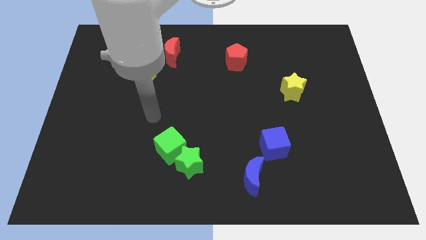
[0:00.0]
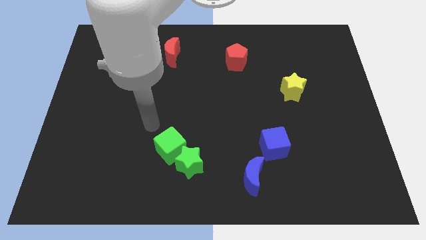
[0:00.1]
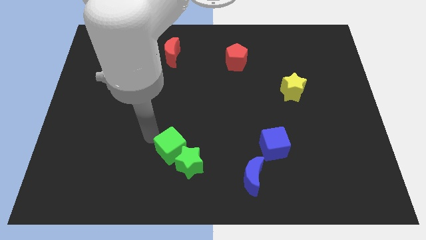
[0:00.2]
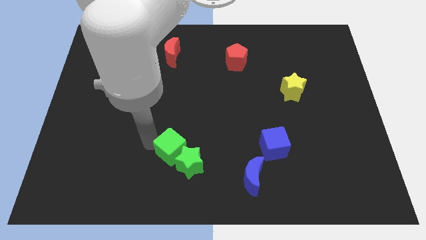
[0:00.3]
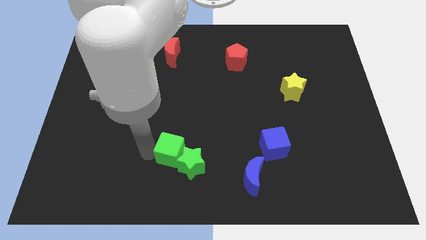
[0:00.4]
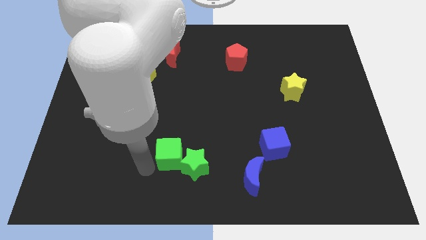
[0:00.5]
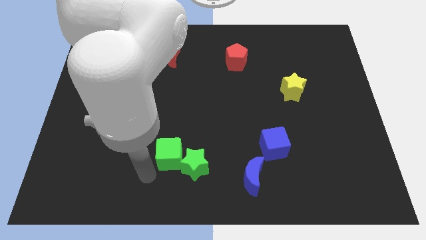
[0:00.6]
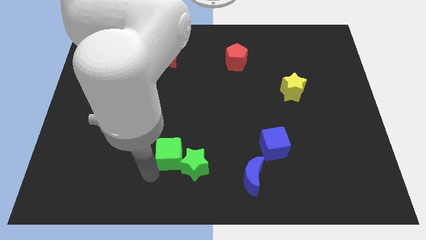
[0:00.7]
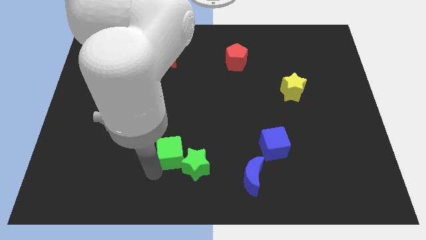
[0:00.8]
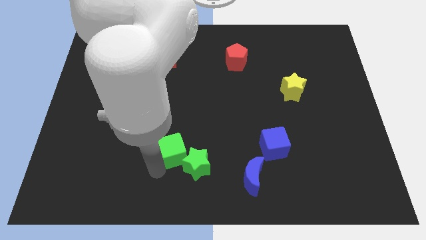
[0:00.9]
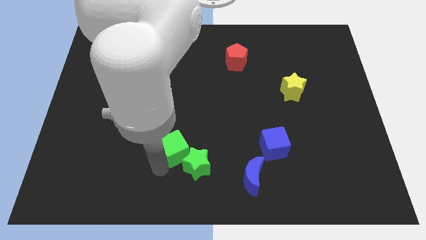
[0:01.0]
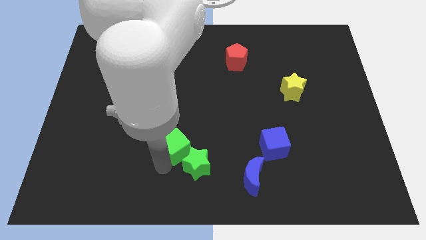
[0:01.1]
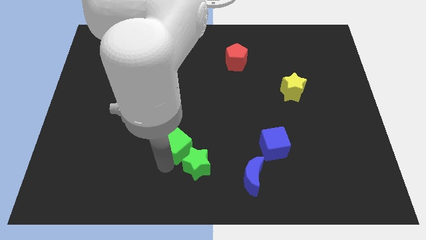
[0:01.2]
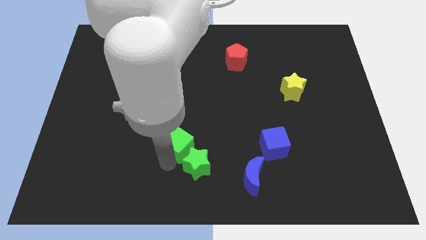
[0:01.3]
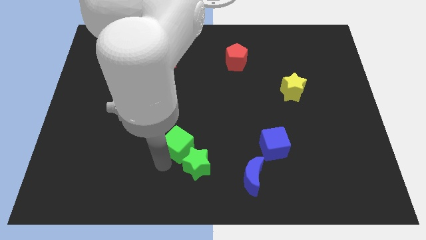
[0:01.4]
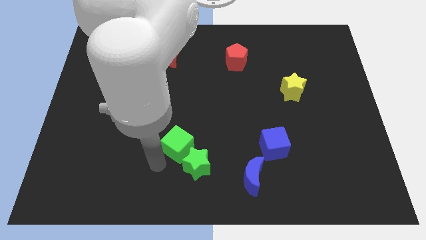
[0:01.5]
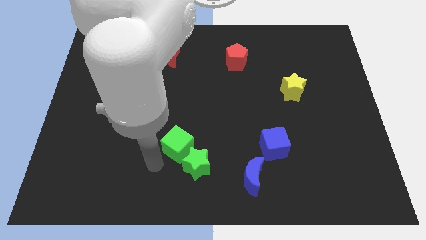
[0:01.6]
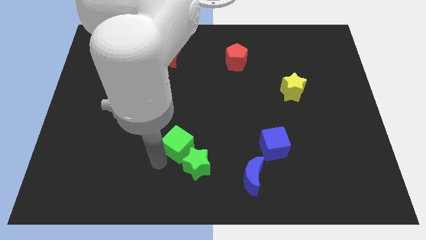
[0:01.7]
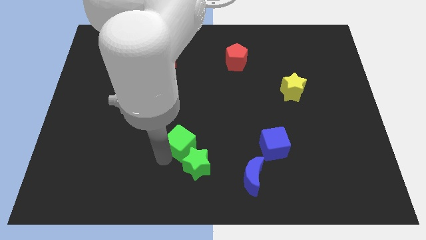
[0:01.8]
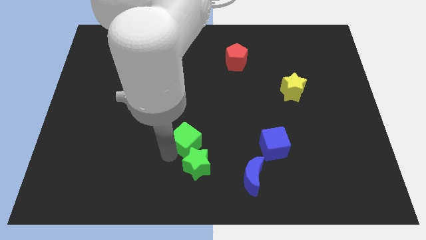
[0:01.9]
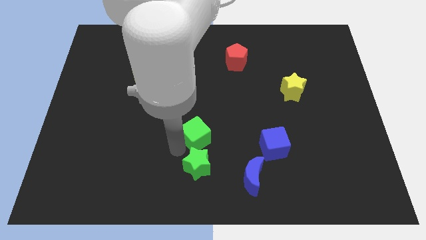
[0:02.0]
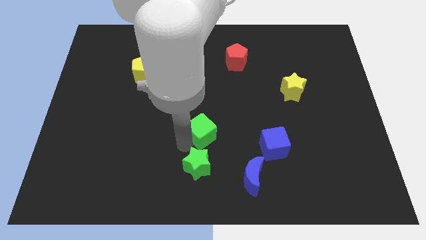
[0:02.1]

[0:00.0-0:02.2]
move the green cube somewhat up and right

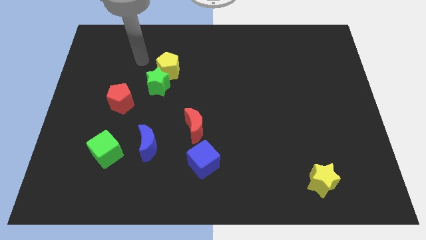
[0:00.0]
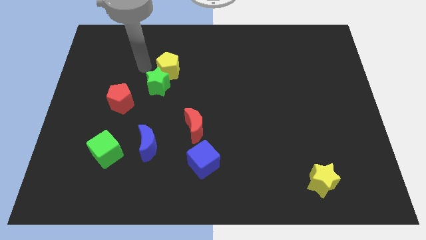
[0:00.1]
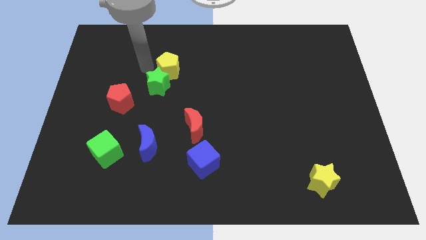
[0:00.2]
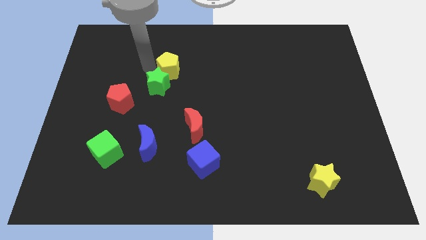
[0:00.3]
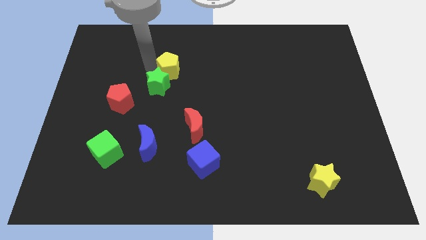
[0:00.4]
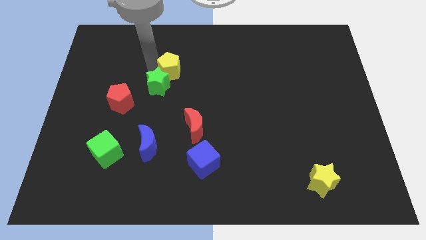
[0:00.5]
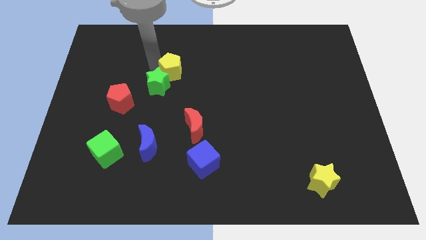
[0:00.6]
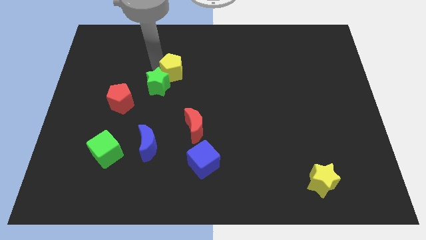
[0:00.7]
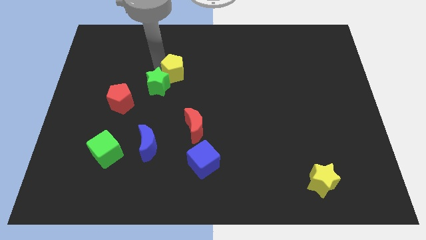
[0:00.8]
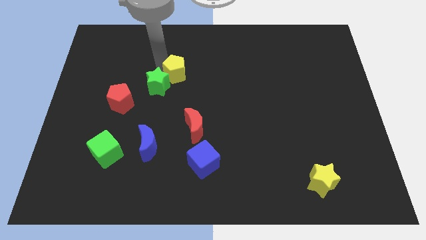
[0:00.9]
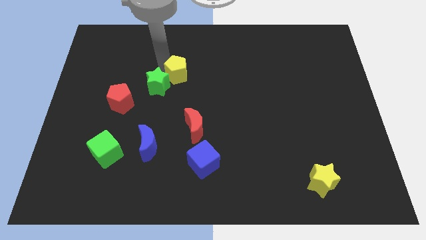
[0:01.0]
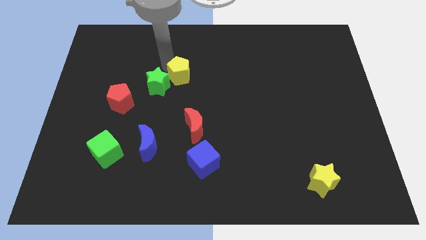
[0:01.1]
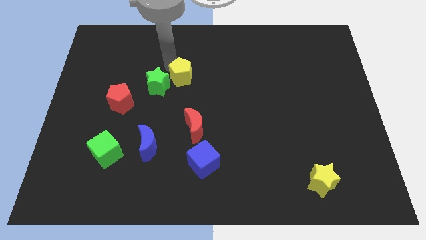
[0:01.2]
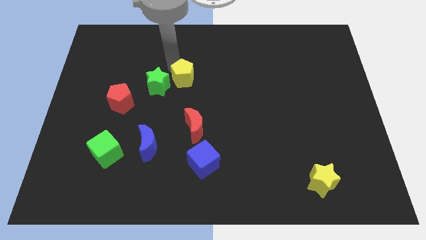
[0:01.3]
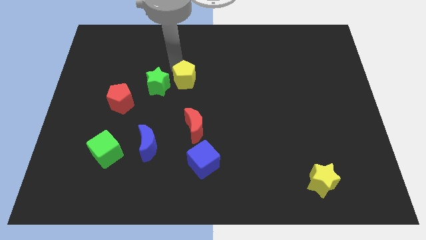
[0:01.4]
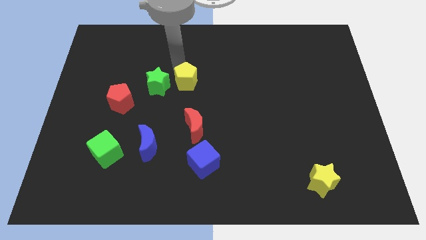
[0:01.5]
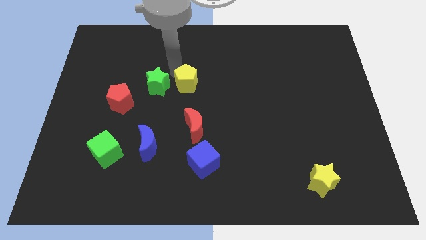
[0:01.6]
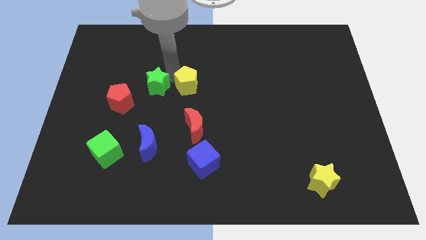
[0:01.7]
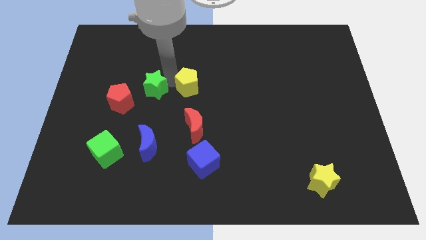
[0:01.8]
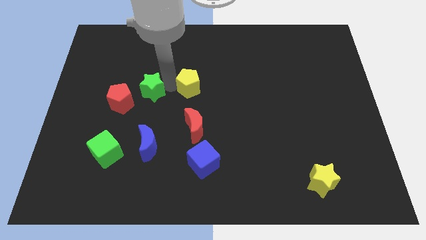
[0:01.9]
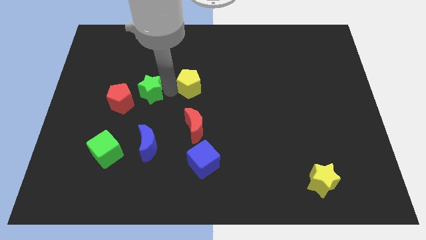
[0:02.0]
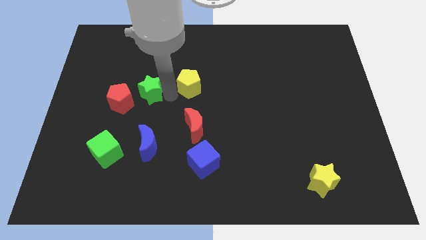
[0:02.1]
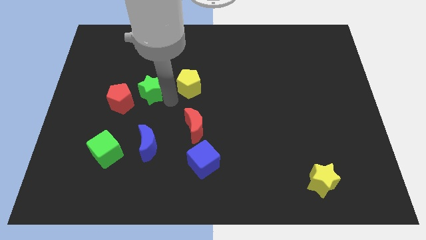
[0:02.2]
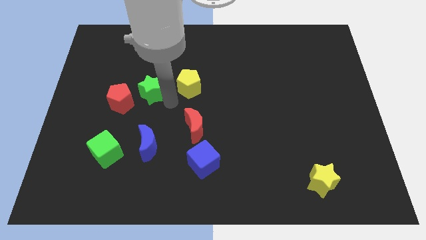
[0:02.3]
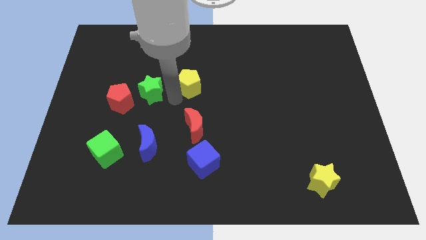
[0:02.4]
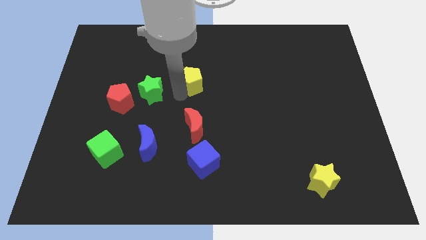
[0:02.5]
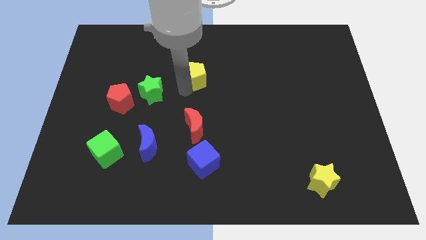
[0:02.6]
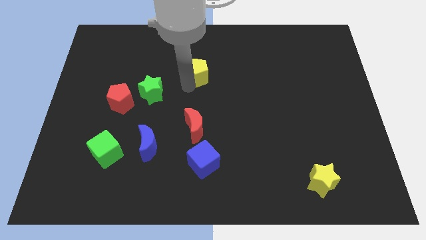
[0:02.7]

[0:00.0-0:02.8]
slide the yellow pentagon right a little bit

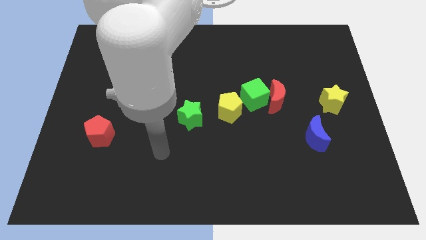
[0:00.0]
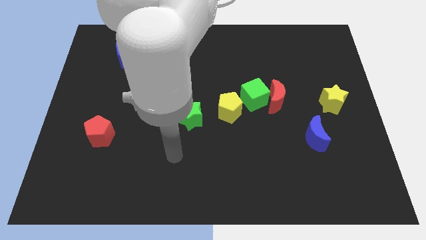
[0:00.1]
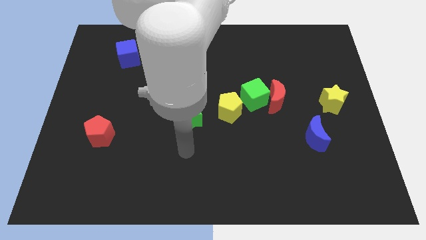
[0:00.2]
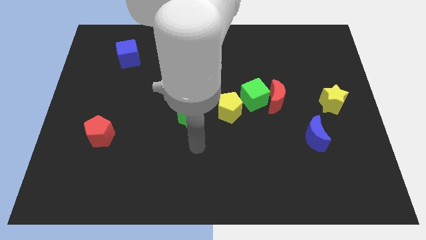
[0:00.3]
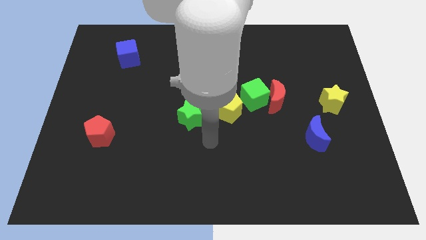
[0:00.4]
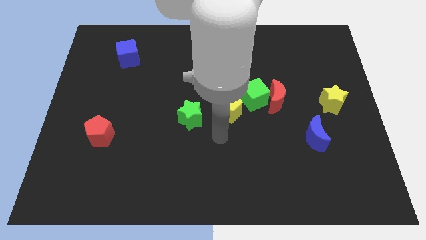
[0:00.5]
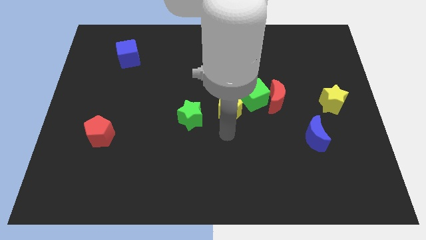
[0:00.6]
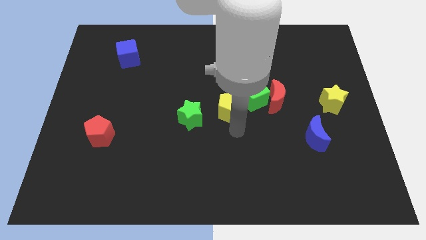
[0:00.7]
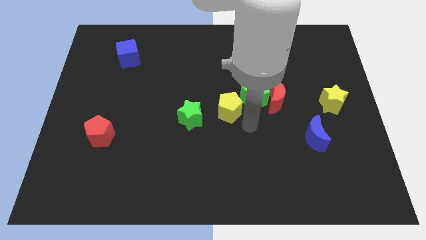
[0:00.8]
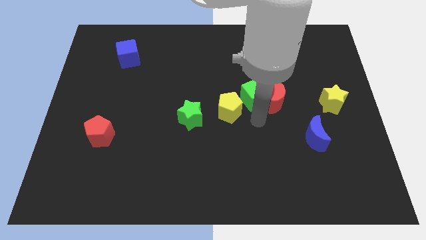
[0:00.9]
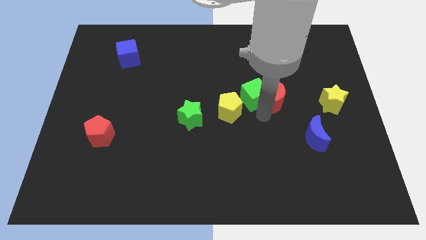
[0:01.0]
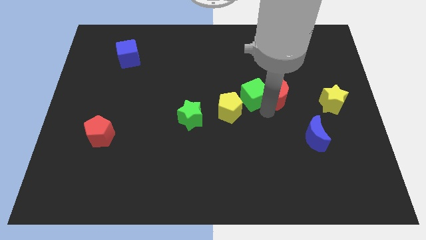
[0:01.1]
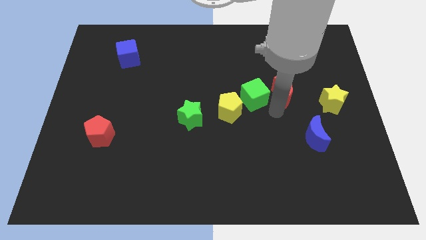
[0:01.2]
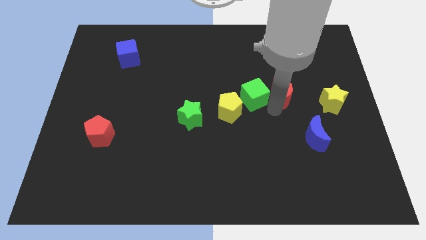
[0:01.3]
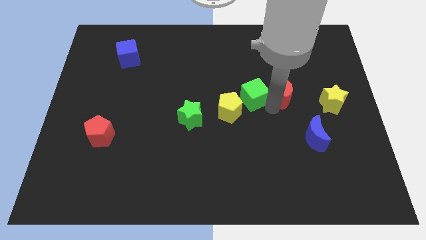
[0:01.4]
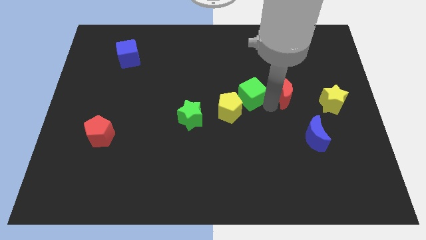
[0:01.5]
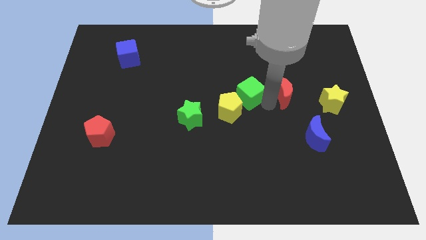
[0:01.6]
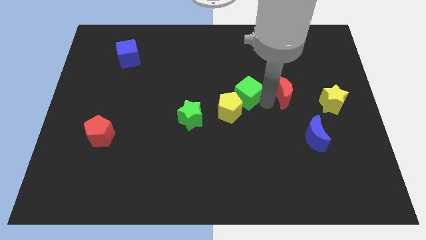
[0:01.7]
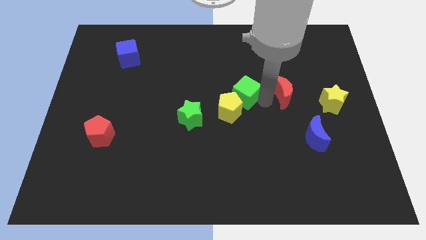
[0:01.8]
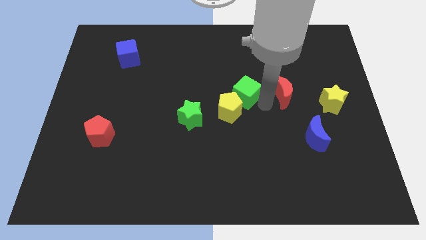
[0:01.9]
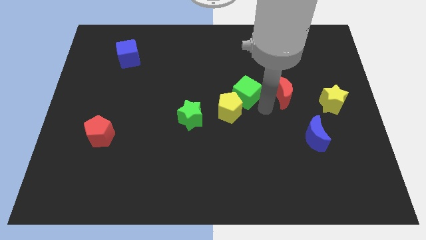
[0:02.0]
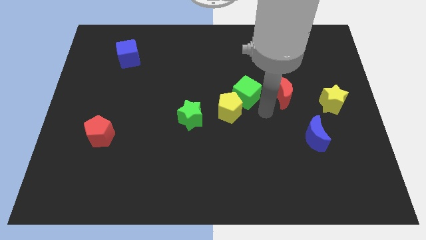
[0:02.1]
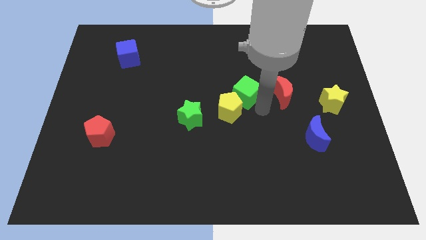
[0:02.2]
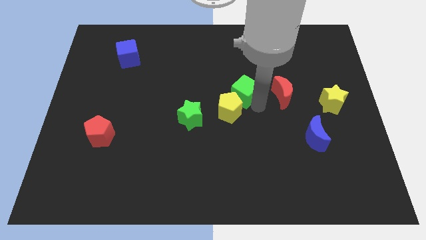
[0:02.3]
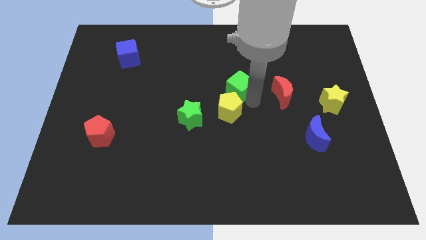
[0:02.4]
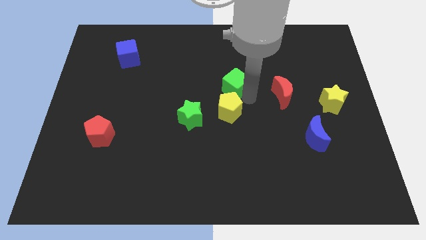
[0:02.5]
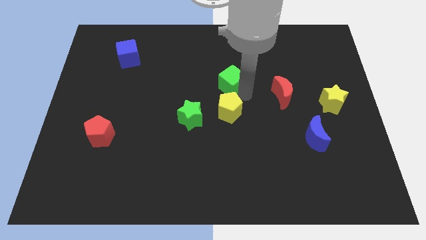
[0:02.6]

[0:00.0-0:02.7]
move the green cube diagonally upwards and to the left somewhat

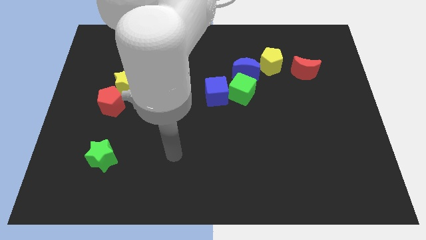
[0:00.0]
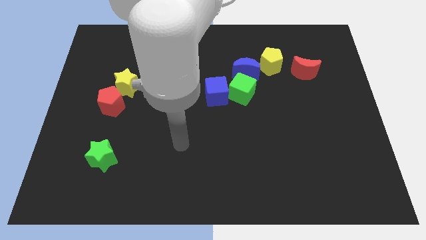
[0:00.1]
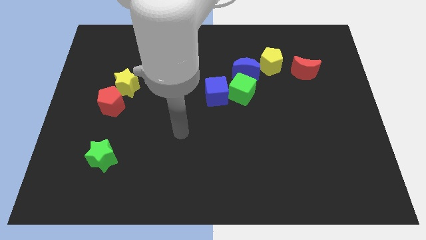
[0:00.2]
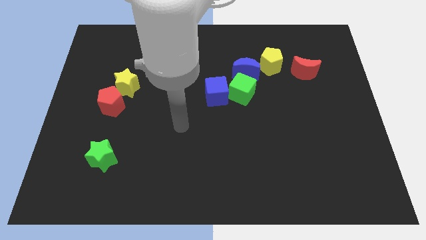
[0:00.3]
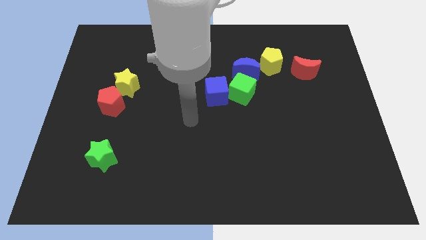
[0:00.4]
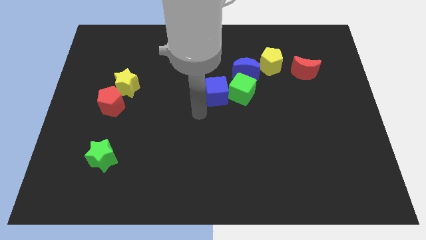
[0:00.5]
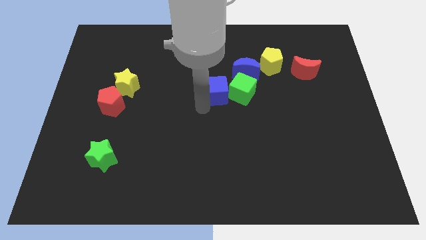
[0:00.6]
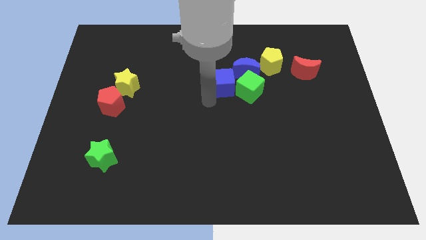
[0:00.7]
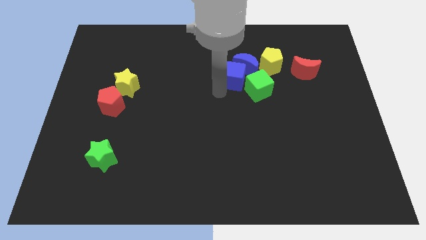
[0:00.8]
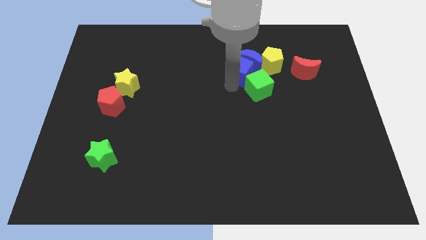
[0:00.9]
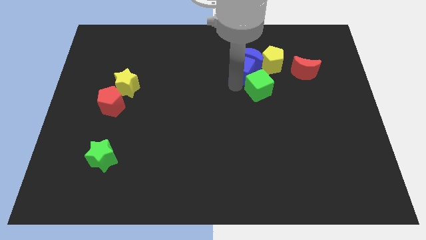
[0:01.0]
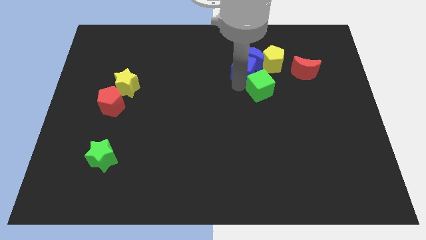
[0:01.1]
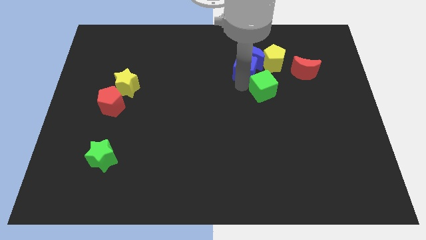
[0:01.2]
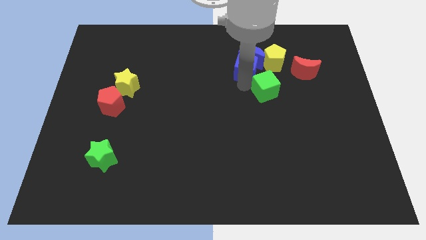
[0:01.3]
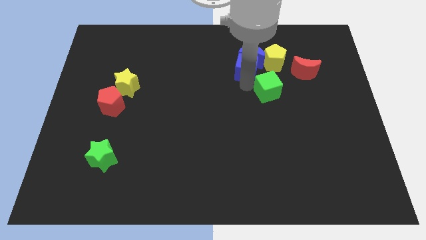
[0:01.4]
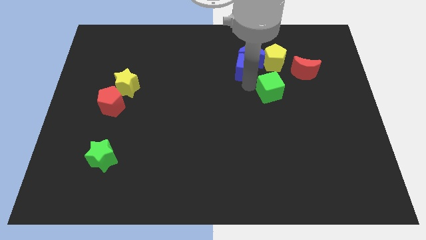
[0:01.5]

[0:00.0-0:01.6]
slightly move the green cube right
